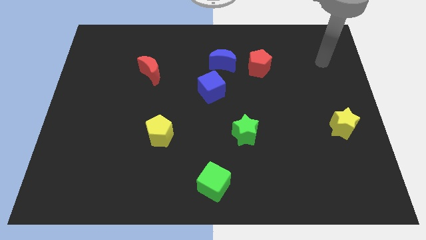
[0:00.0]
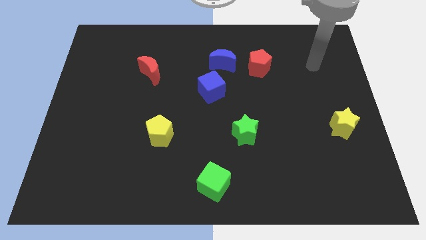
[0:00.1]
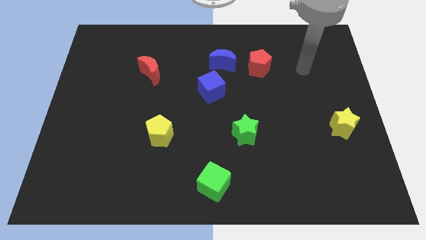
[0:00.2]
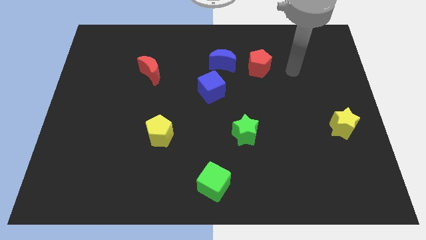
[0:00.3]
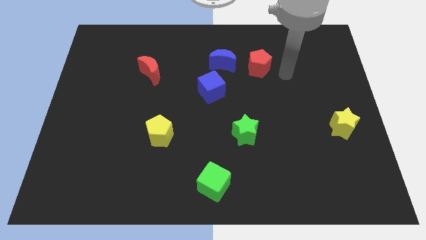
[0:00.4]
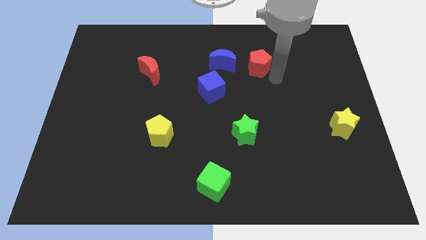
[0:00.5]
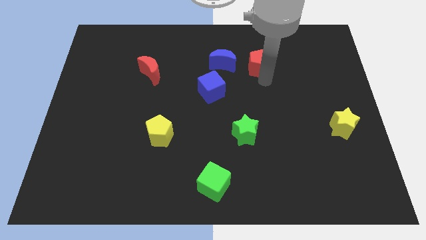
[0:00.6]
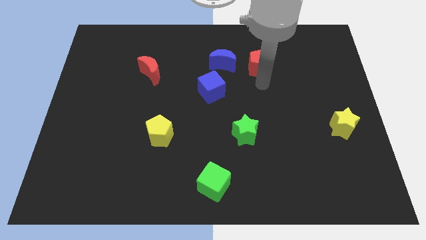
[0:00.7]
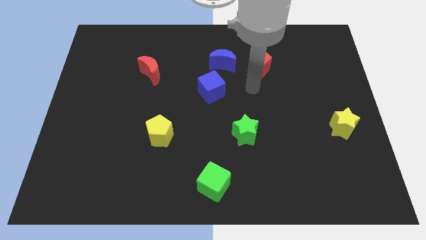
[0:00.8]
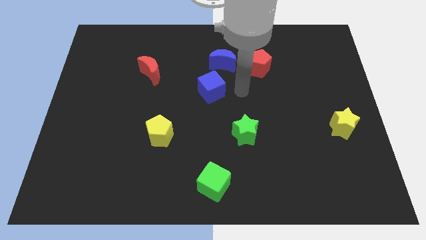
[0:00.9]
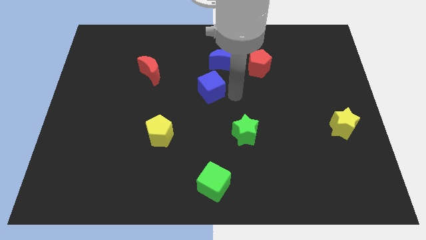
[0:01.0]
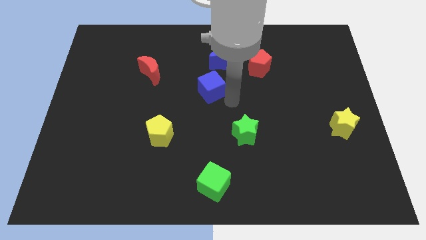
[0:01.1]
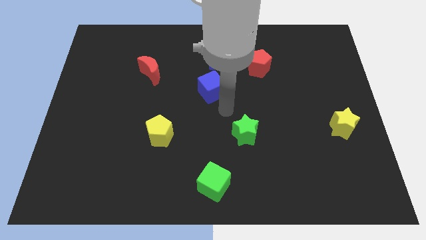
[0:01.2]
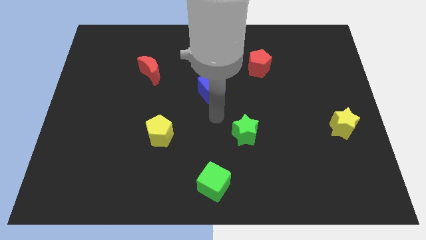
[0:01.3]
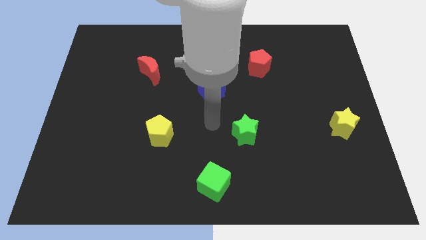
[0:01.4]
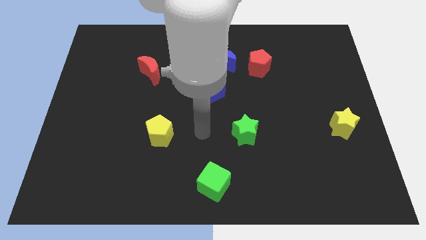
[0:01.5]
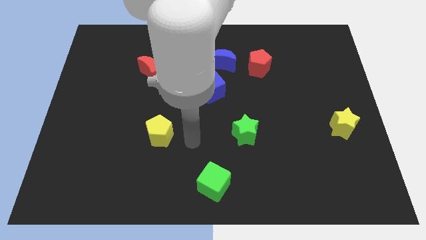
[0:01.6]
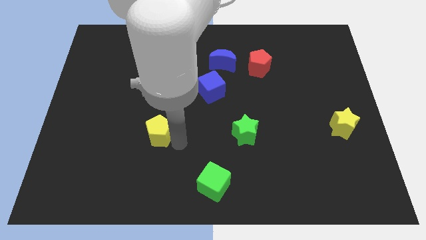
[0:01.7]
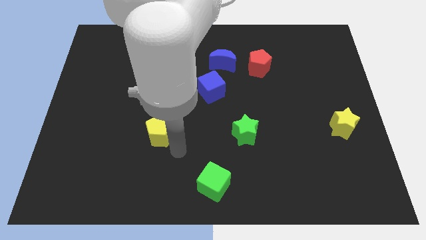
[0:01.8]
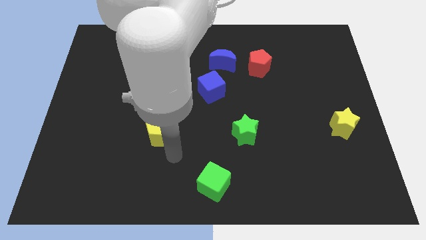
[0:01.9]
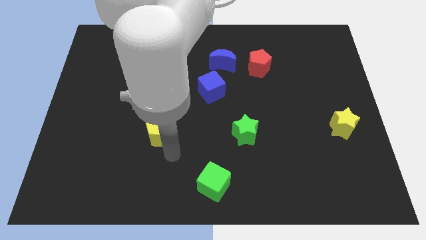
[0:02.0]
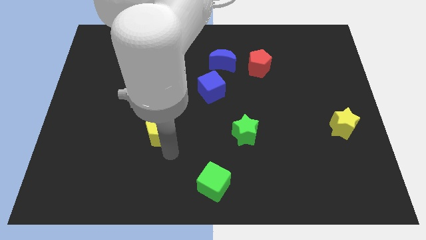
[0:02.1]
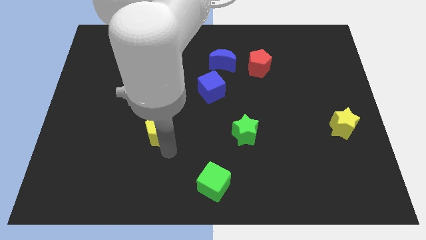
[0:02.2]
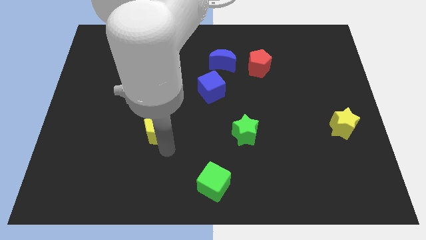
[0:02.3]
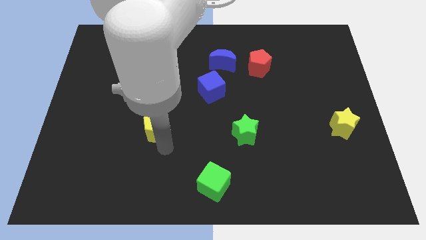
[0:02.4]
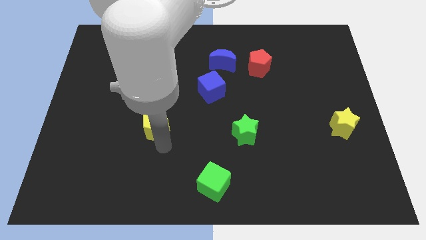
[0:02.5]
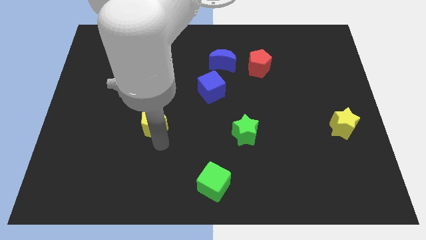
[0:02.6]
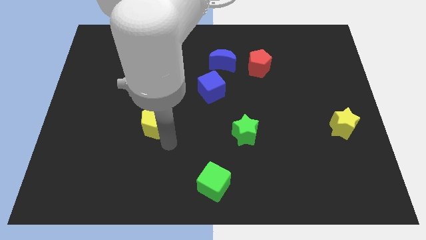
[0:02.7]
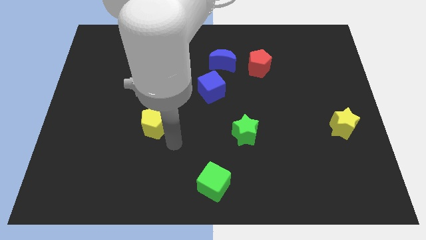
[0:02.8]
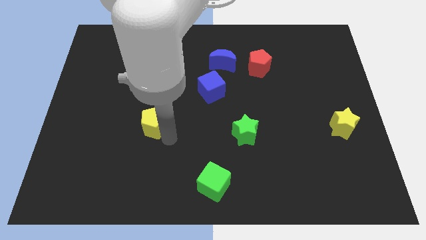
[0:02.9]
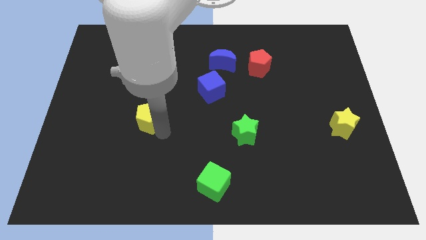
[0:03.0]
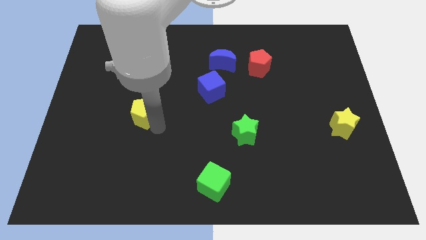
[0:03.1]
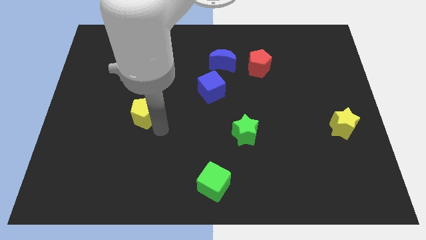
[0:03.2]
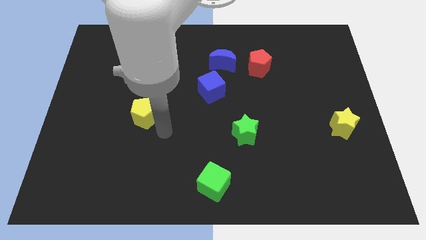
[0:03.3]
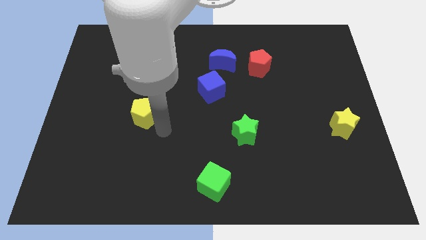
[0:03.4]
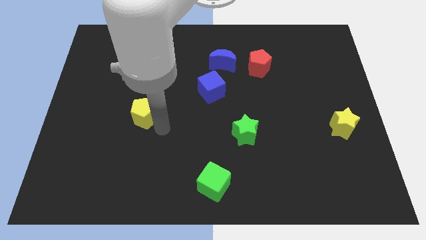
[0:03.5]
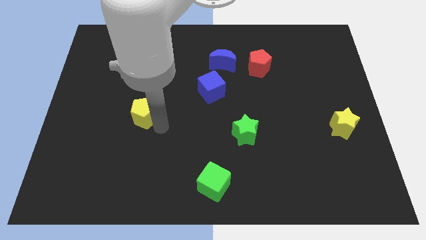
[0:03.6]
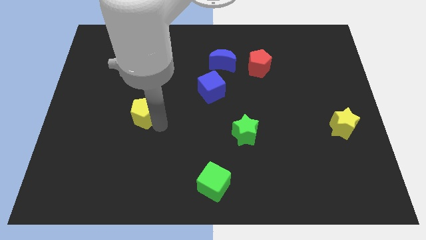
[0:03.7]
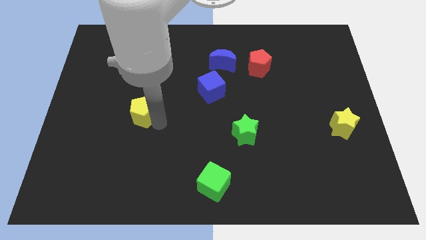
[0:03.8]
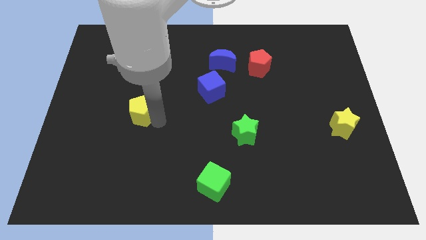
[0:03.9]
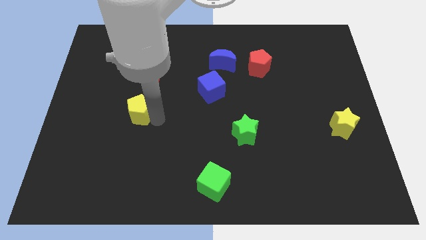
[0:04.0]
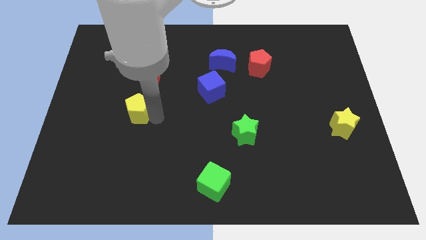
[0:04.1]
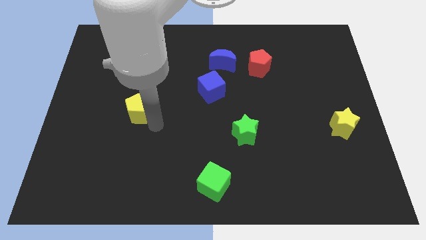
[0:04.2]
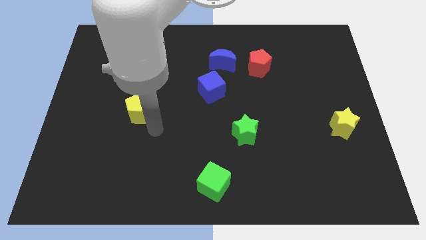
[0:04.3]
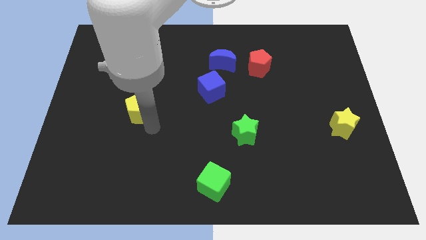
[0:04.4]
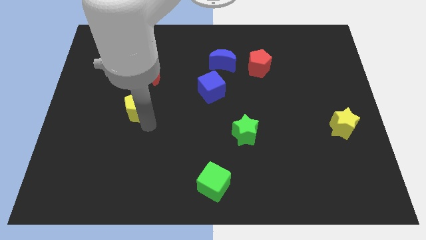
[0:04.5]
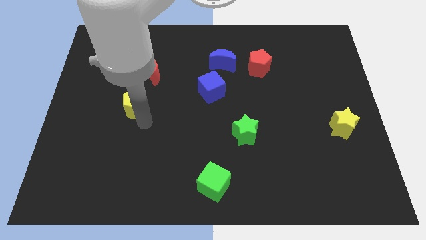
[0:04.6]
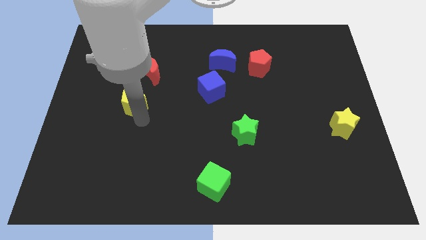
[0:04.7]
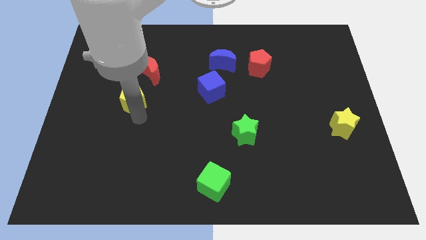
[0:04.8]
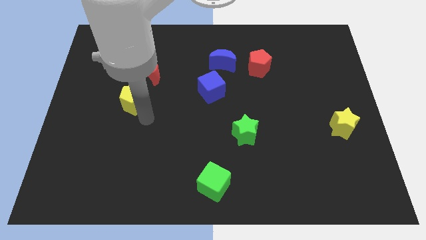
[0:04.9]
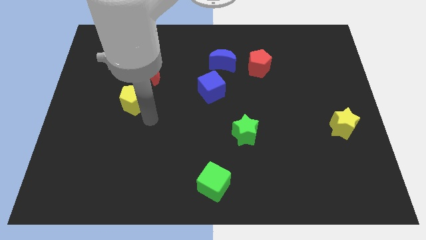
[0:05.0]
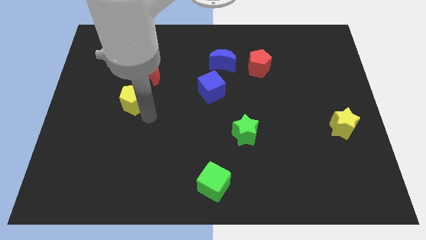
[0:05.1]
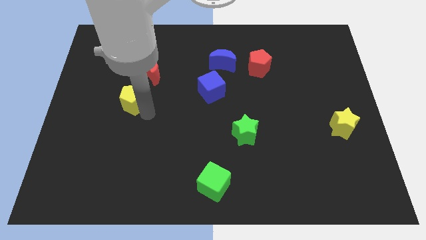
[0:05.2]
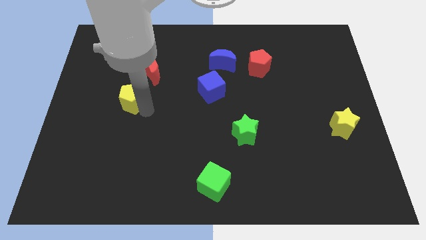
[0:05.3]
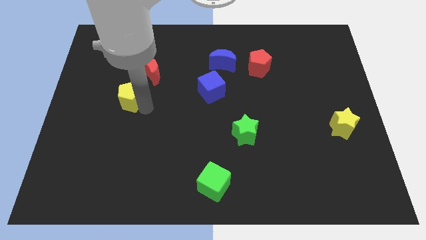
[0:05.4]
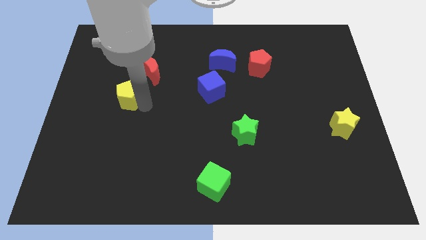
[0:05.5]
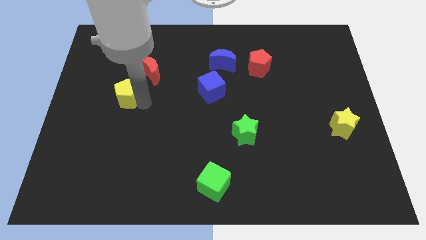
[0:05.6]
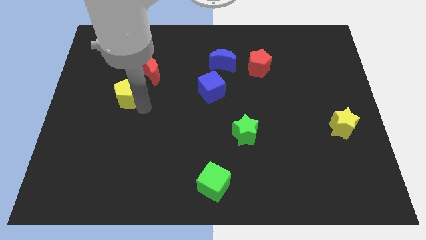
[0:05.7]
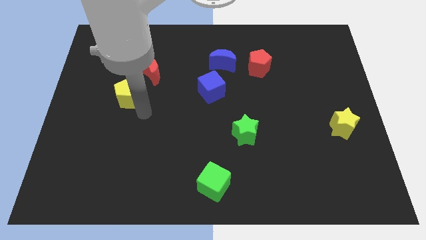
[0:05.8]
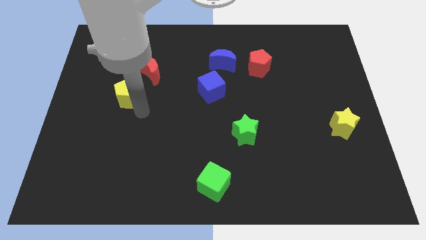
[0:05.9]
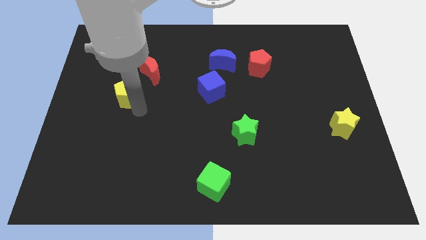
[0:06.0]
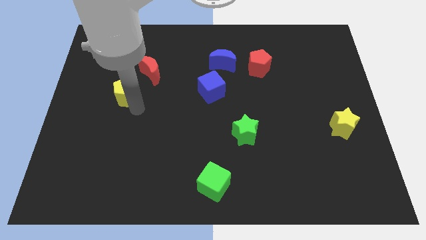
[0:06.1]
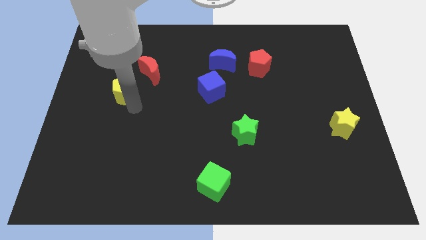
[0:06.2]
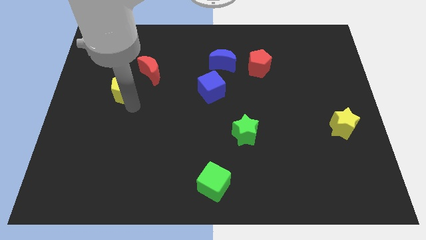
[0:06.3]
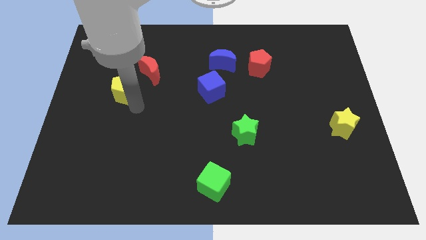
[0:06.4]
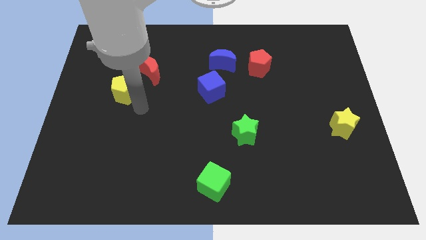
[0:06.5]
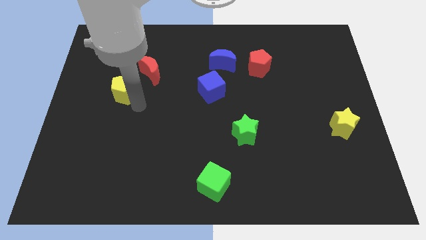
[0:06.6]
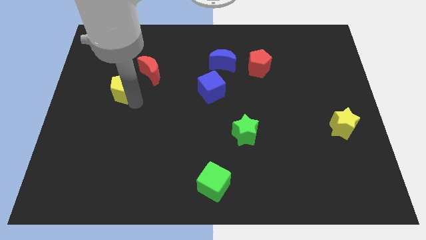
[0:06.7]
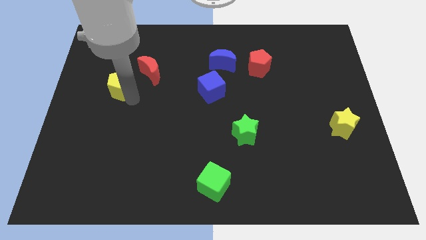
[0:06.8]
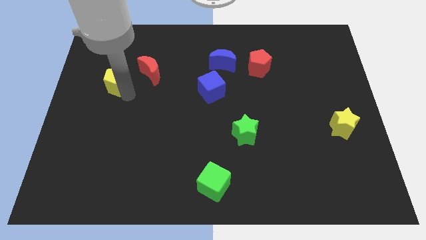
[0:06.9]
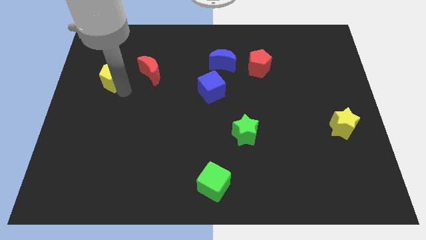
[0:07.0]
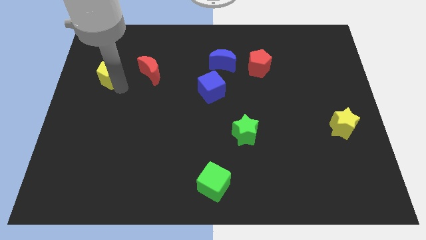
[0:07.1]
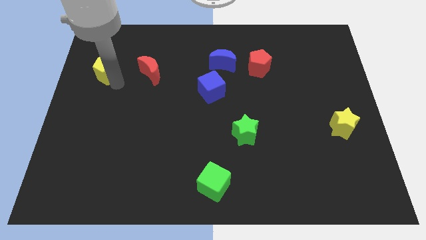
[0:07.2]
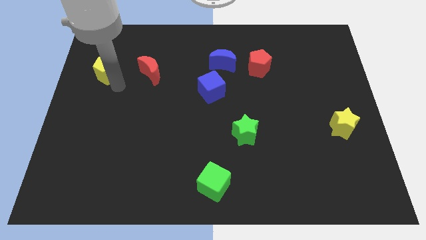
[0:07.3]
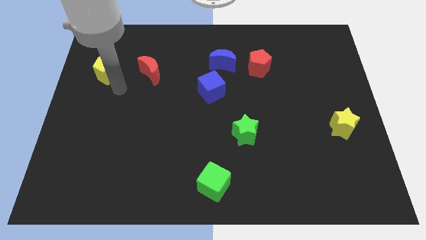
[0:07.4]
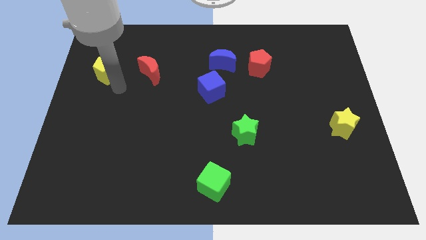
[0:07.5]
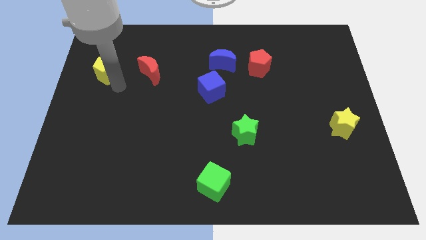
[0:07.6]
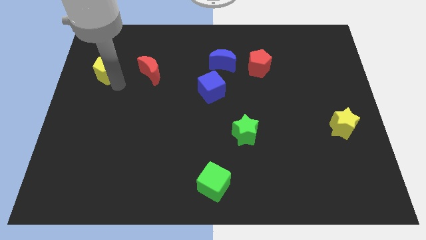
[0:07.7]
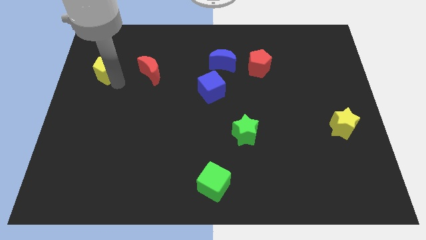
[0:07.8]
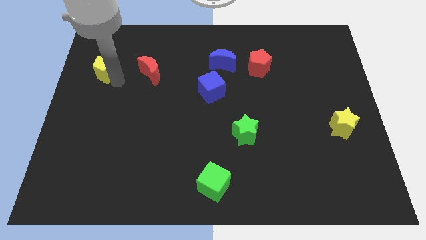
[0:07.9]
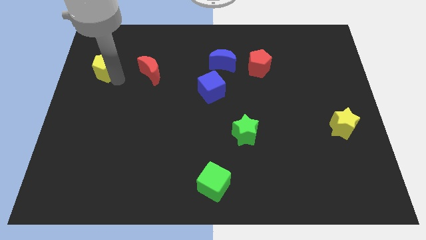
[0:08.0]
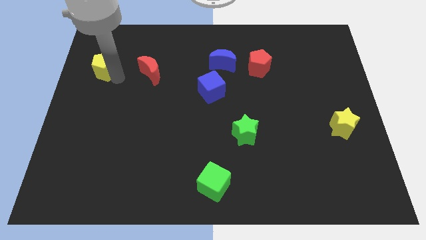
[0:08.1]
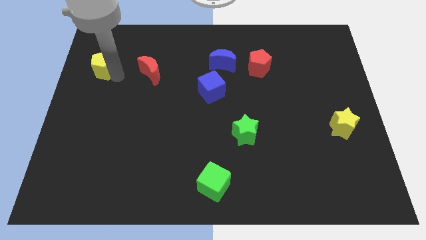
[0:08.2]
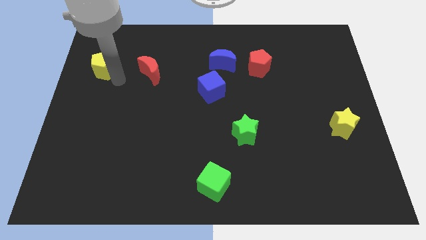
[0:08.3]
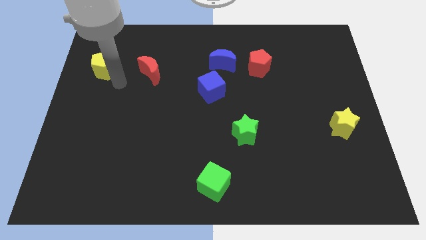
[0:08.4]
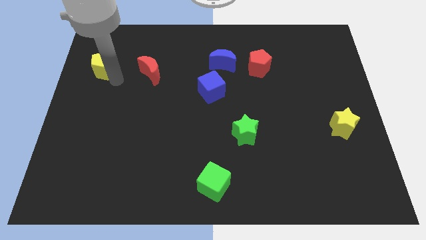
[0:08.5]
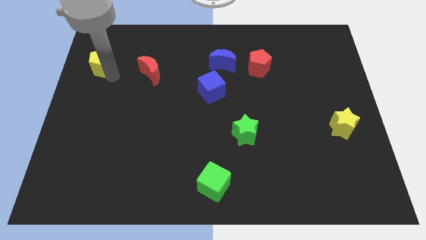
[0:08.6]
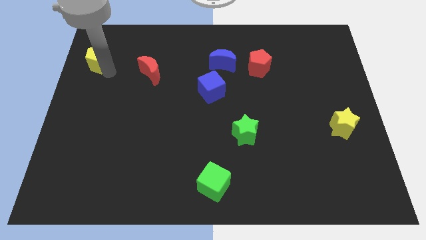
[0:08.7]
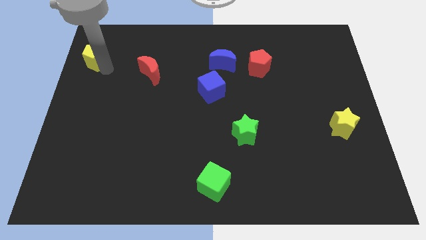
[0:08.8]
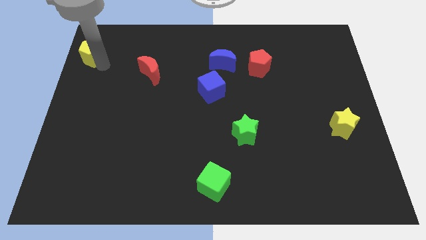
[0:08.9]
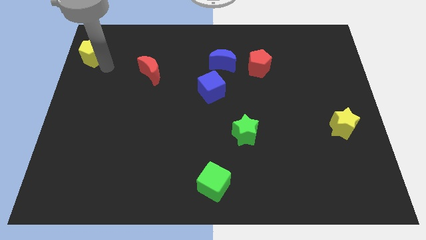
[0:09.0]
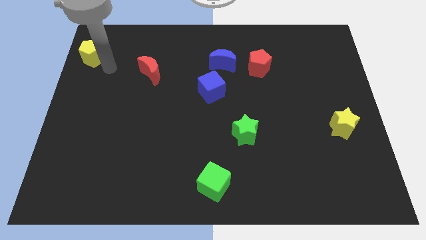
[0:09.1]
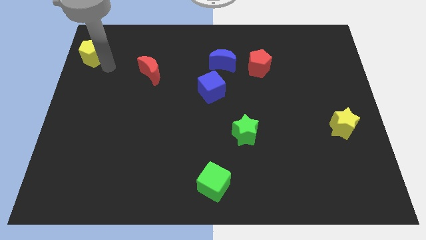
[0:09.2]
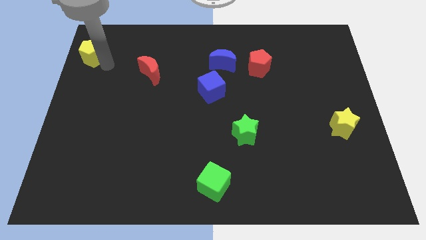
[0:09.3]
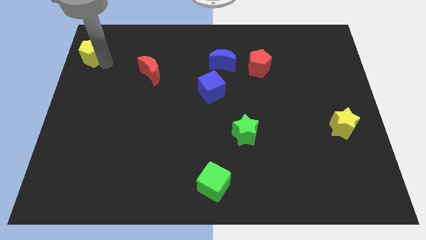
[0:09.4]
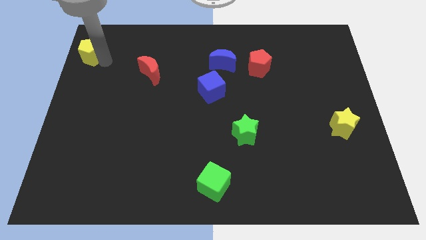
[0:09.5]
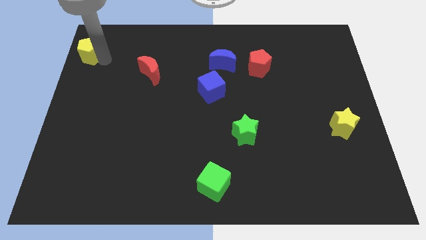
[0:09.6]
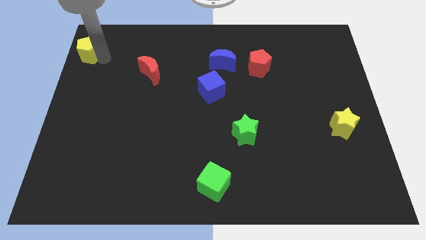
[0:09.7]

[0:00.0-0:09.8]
slide the yellow pentagon to the top left corner
